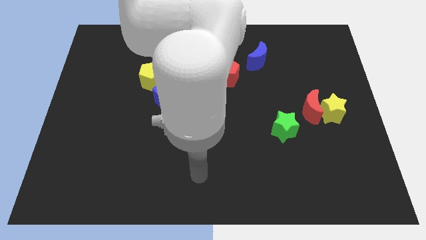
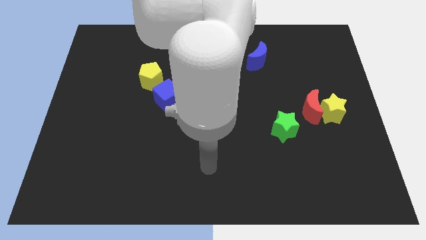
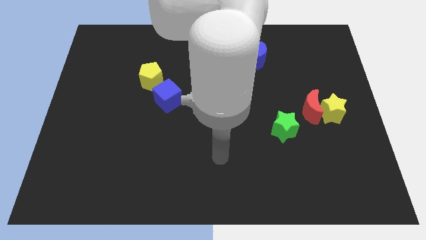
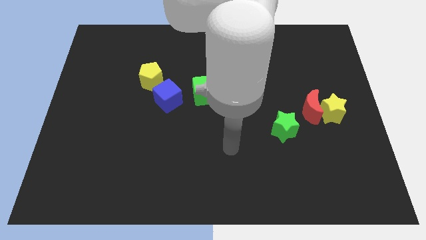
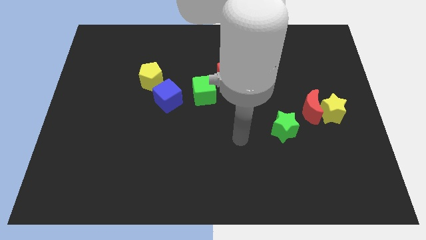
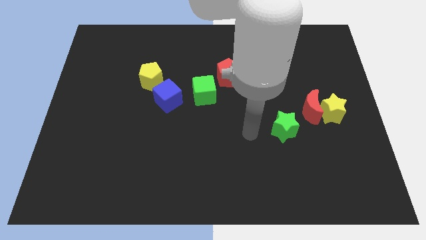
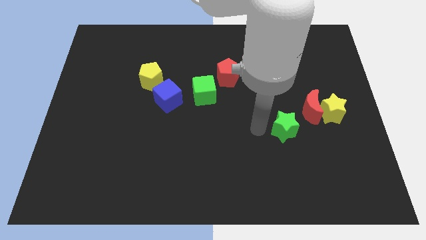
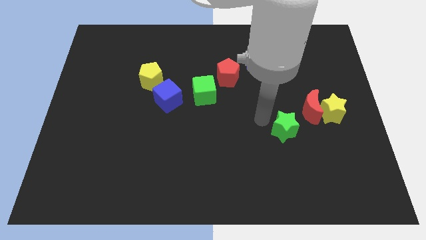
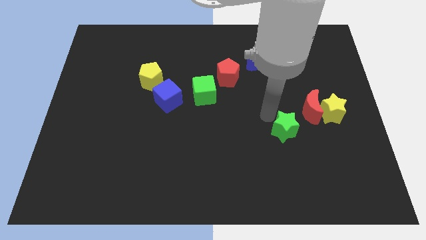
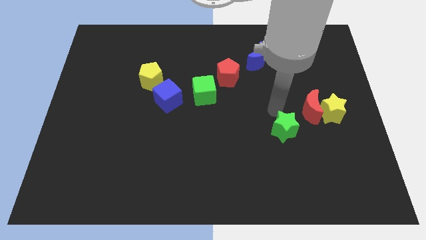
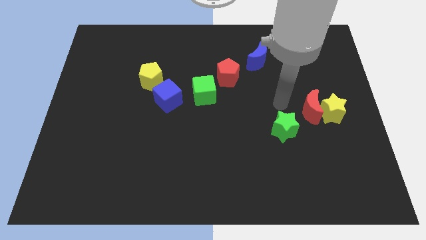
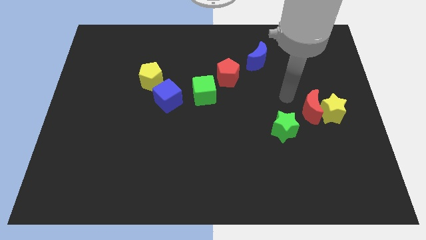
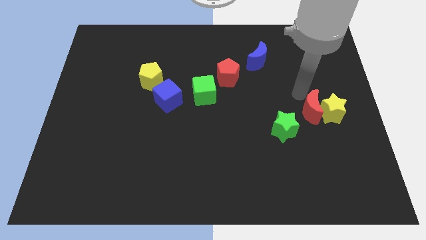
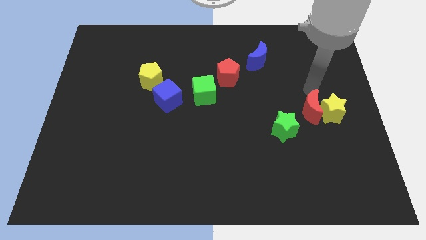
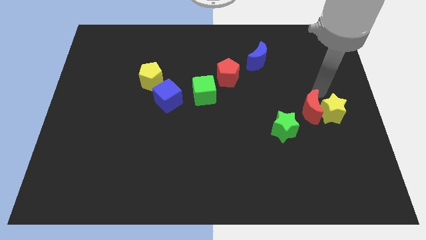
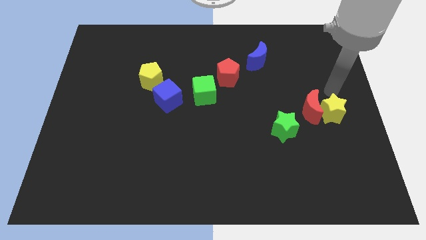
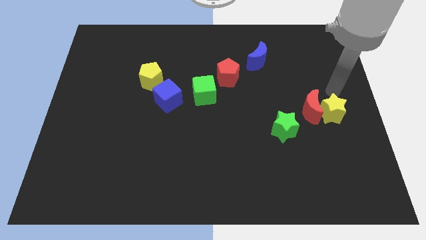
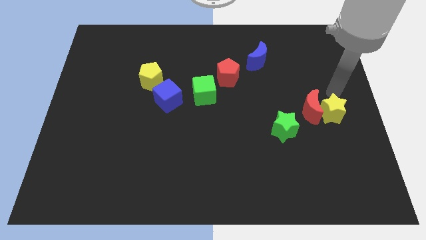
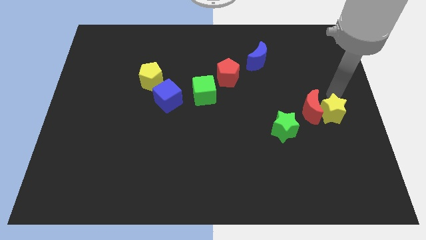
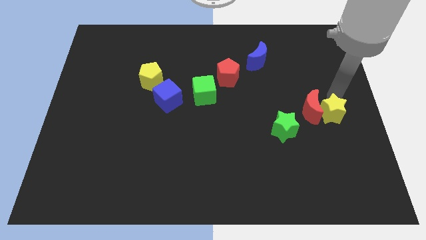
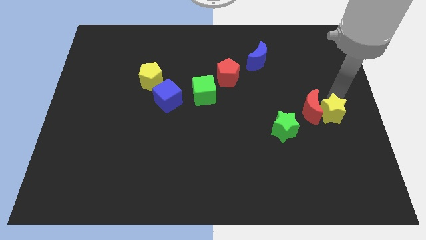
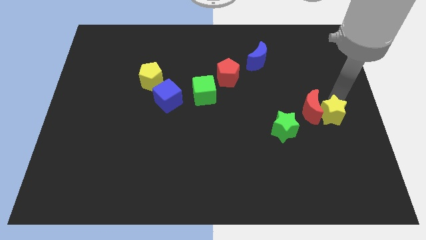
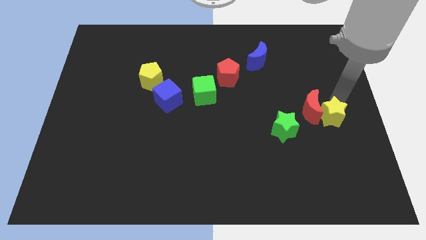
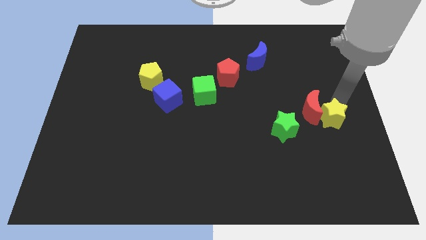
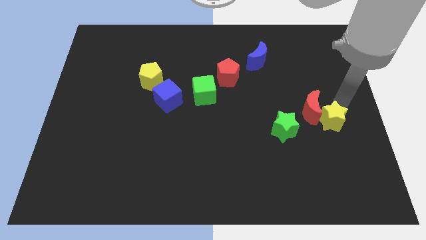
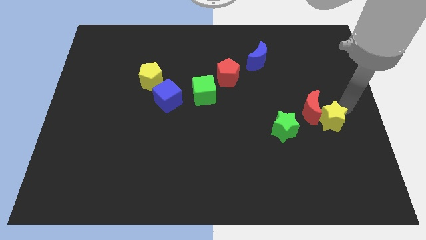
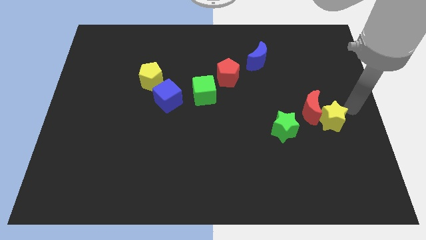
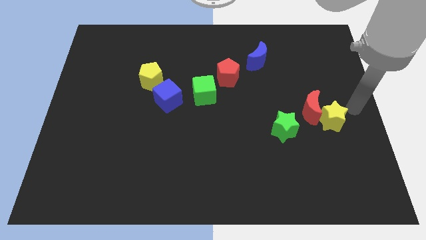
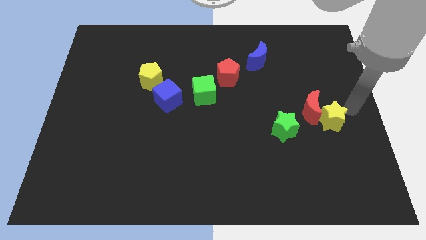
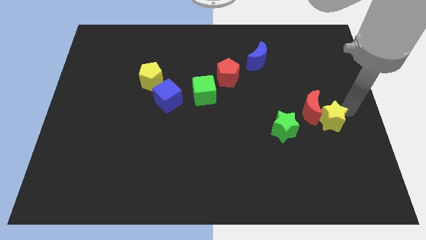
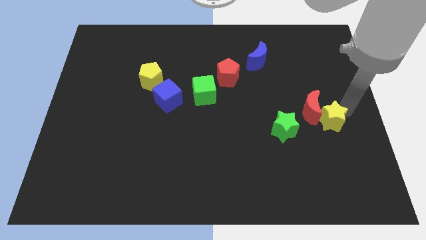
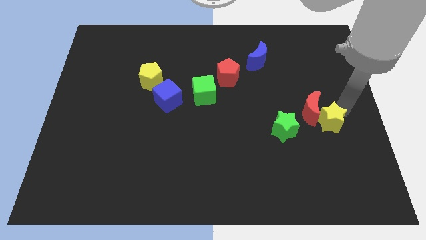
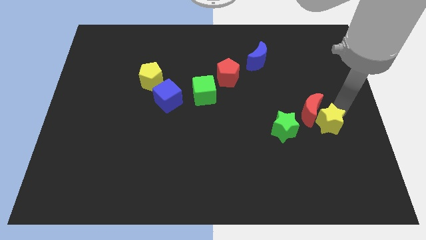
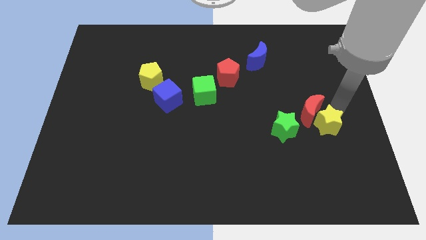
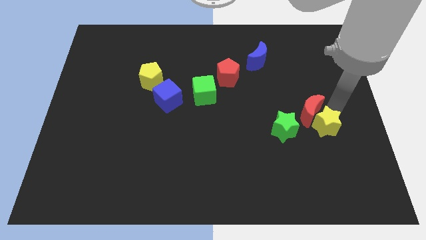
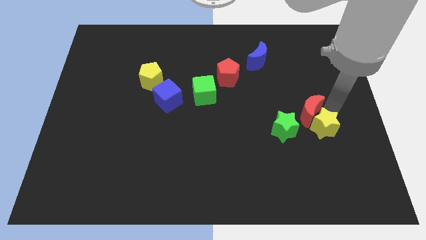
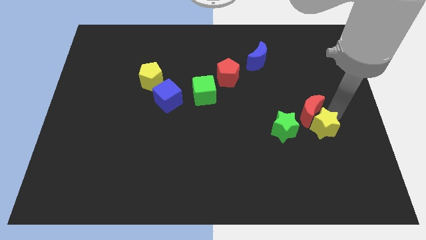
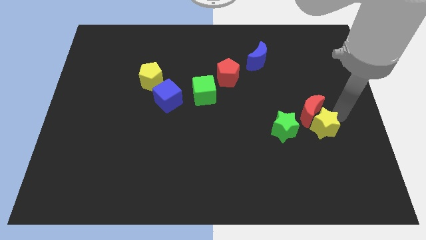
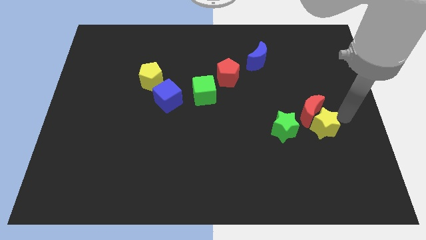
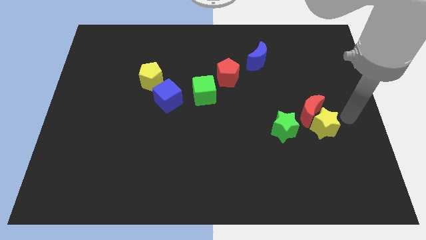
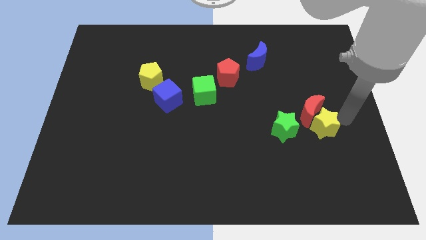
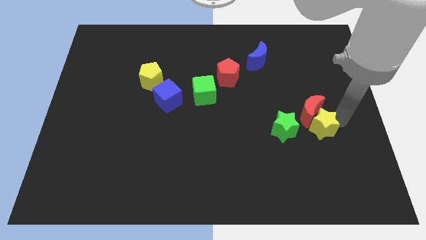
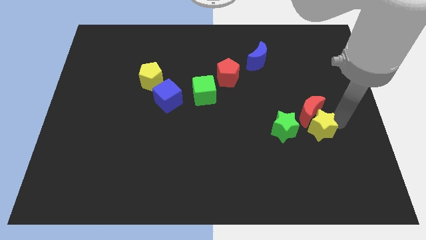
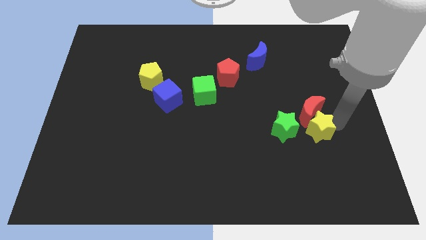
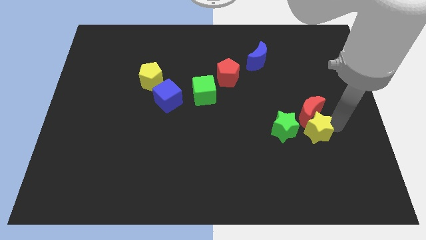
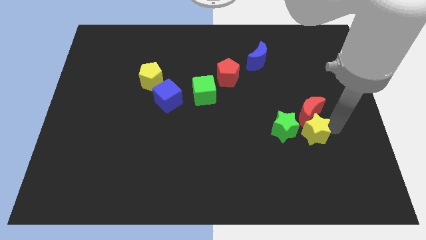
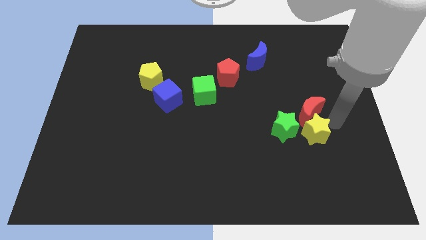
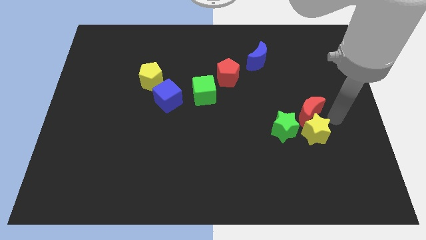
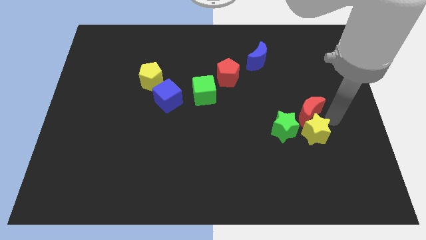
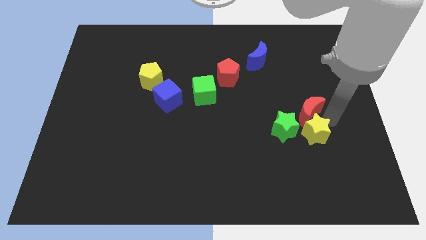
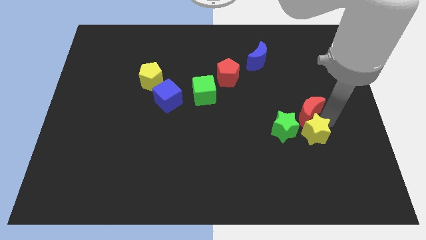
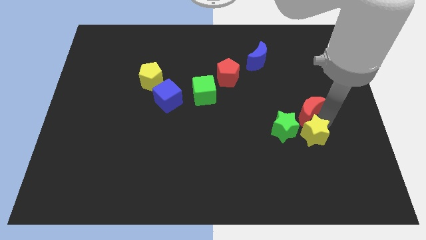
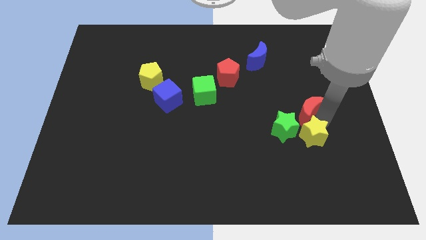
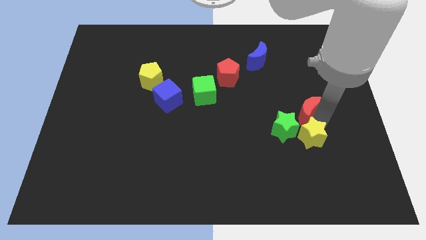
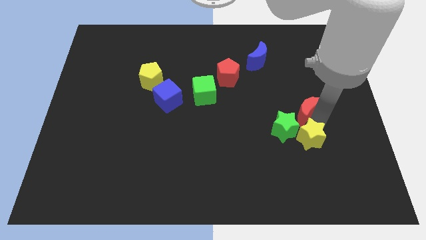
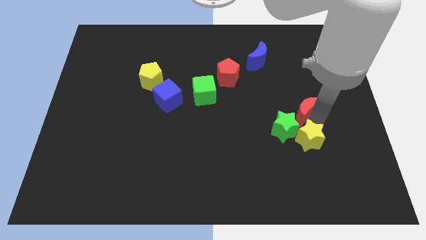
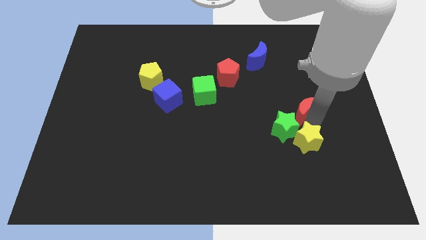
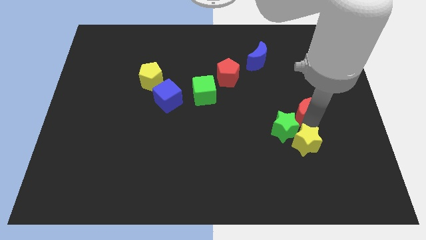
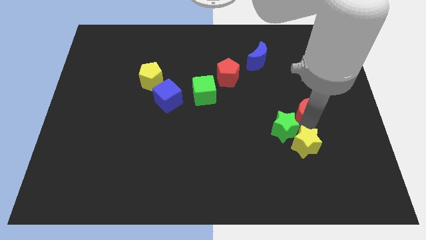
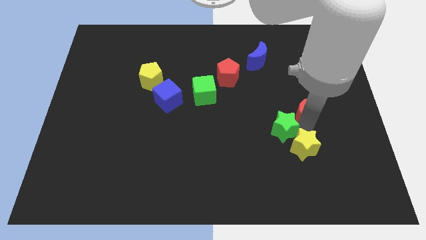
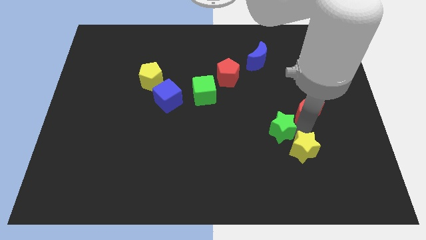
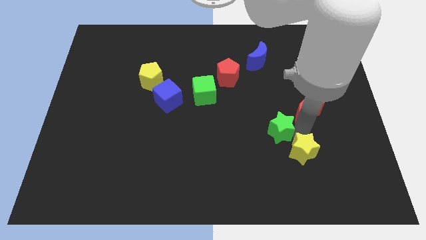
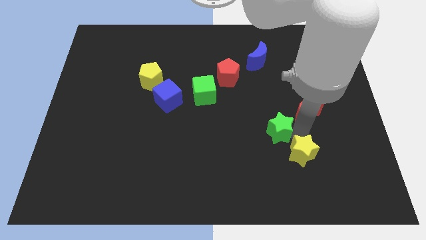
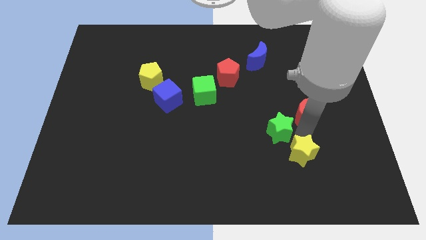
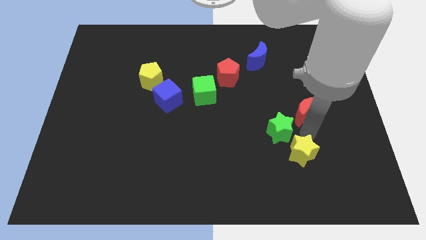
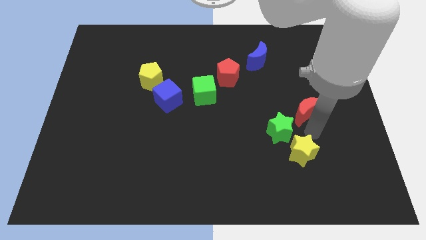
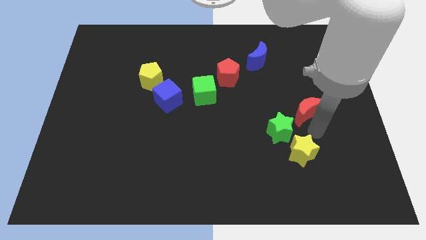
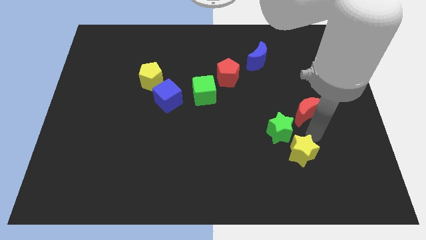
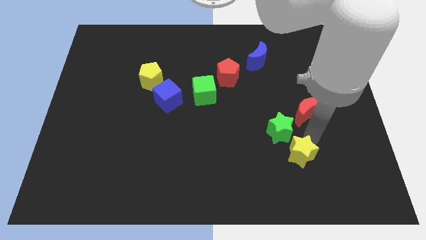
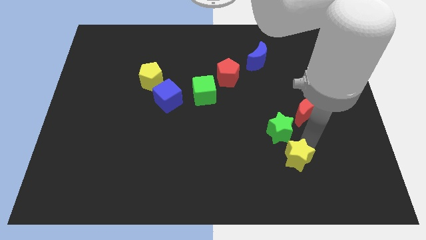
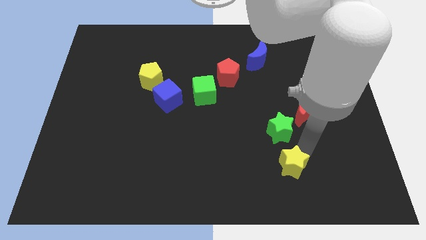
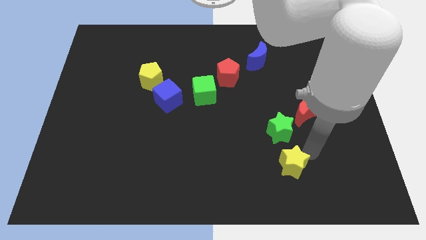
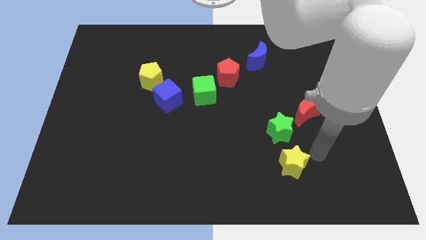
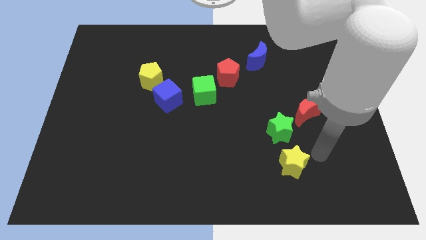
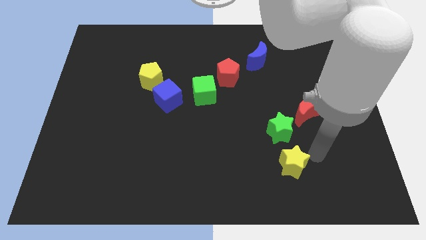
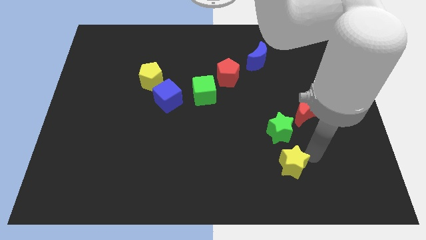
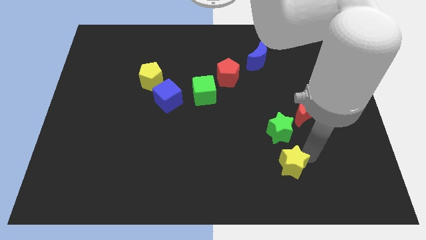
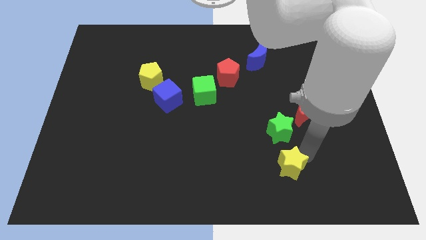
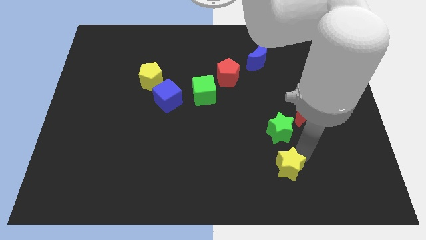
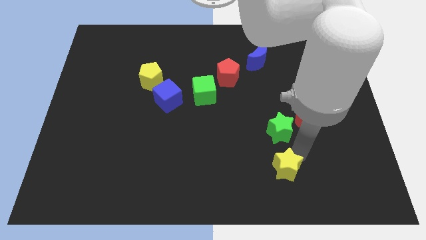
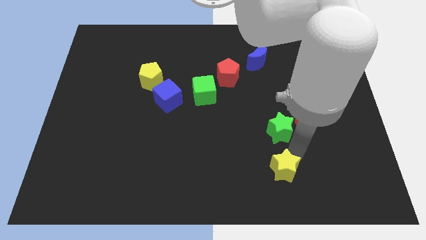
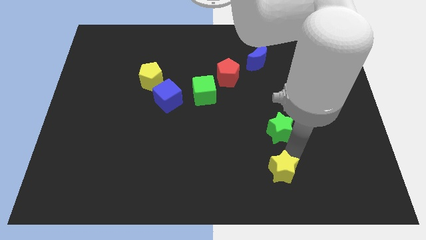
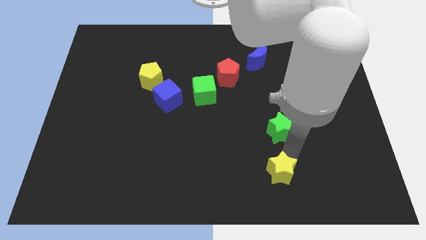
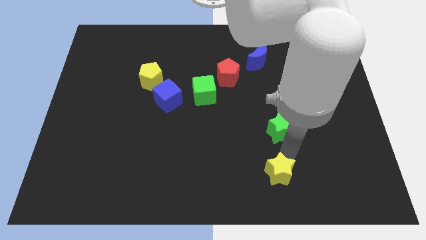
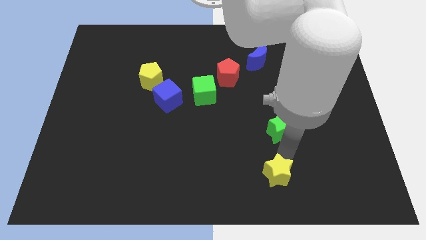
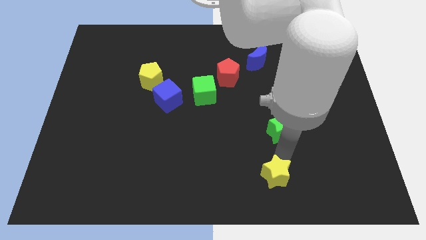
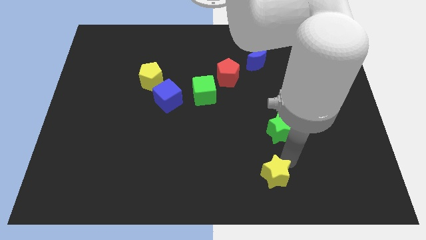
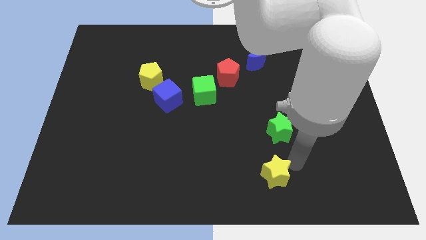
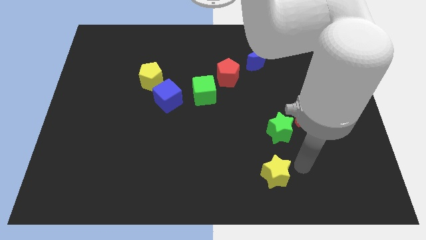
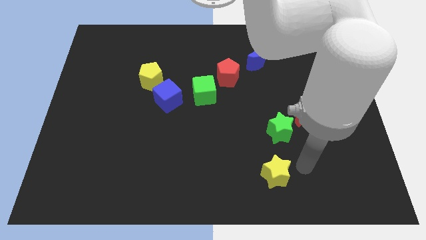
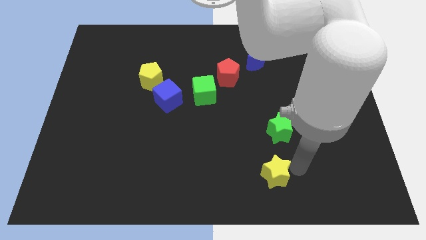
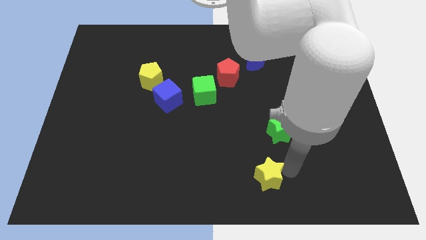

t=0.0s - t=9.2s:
put the yellow star to the bottom
